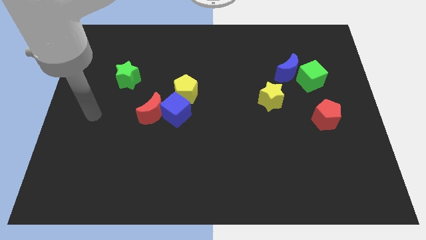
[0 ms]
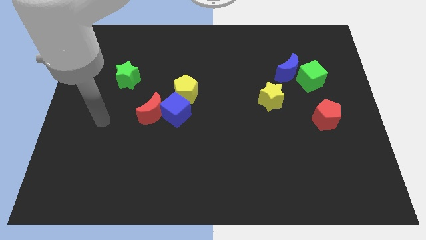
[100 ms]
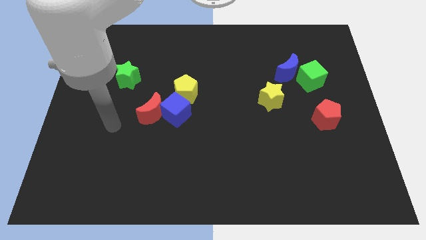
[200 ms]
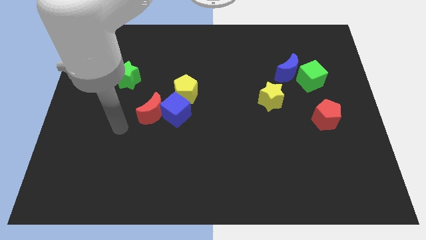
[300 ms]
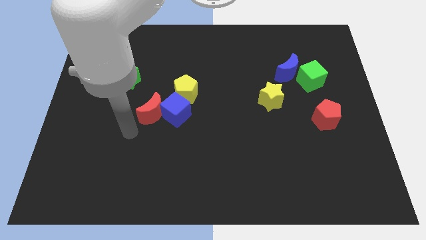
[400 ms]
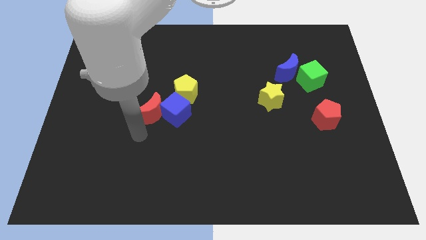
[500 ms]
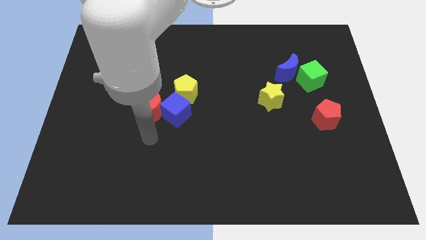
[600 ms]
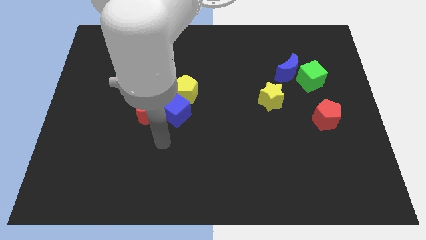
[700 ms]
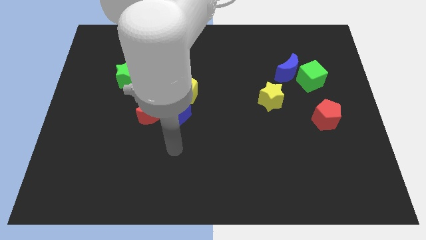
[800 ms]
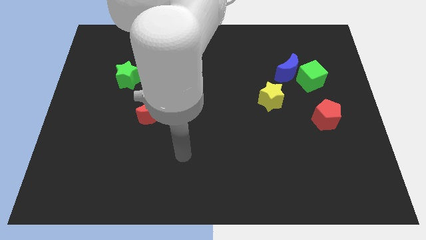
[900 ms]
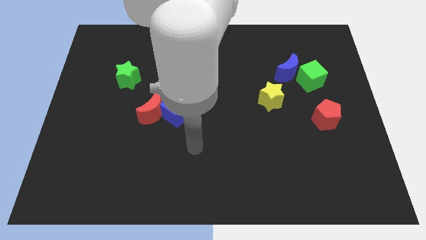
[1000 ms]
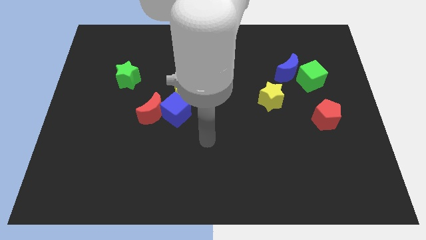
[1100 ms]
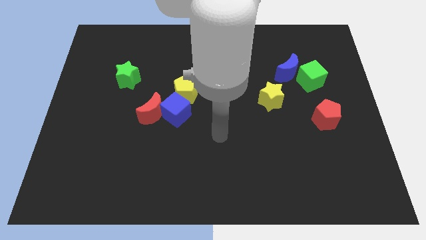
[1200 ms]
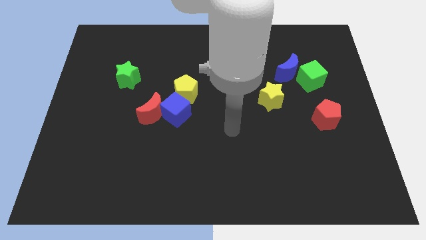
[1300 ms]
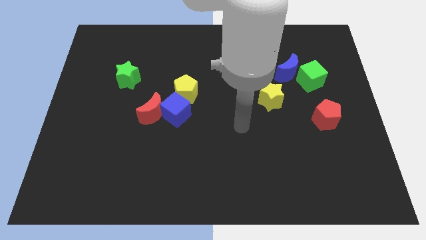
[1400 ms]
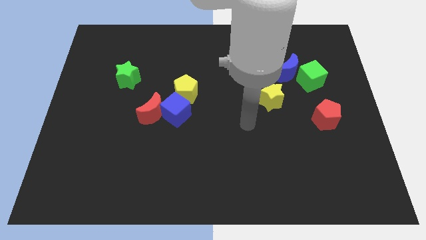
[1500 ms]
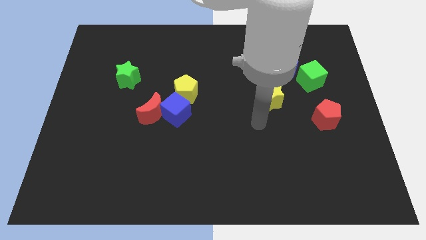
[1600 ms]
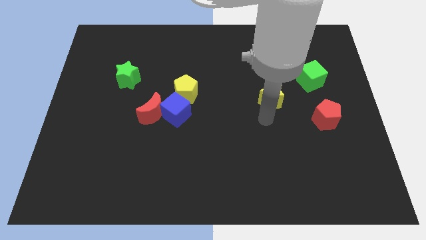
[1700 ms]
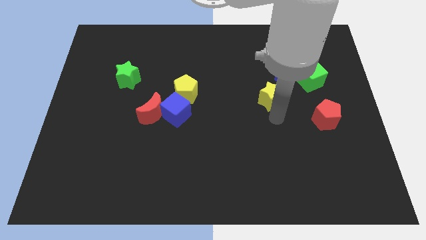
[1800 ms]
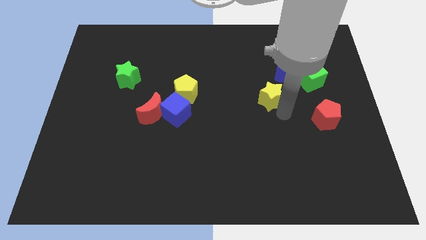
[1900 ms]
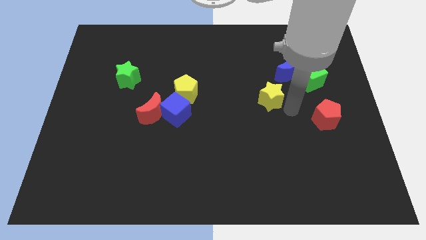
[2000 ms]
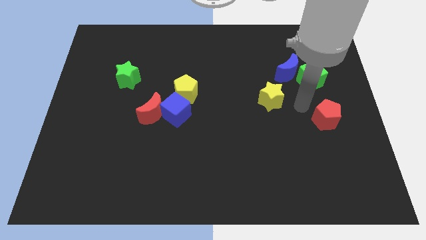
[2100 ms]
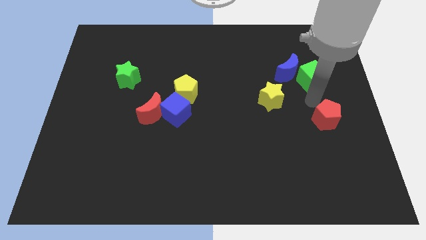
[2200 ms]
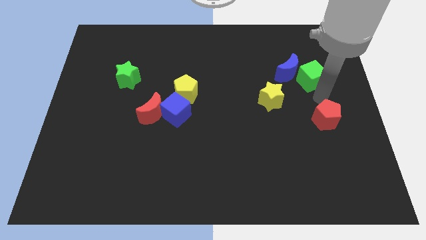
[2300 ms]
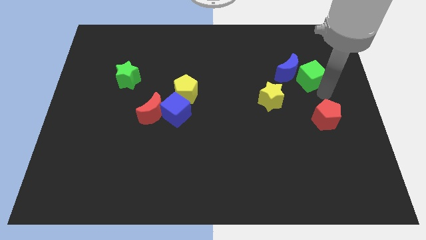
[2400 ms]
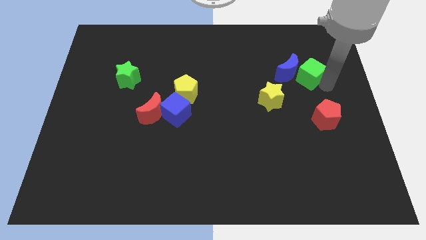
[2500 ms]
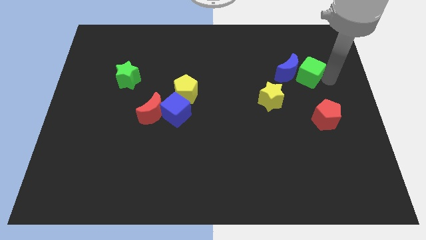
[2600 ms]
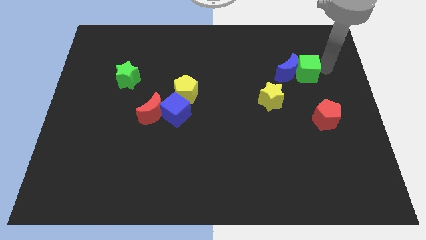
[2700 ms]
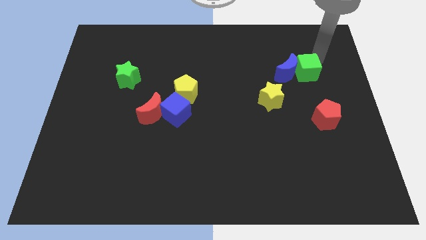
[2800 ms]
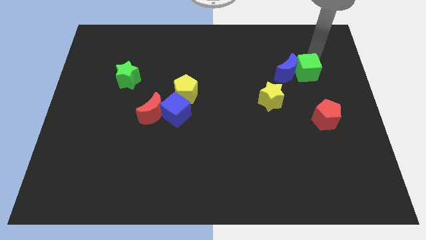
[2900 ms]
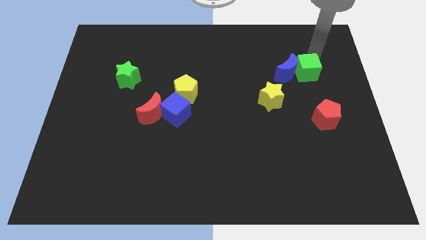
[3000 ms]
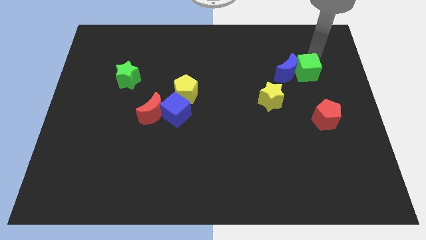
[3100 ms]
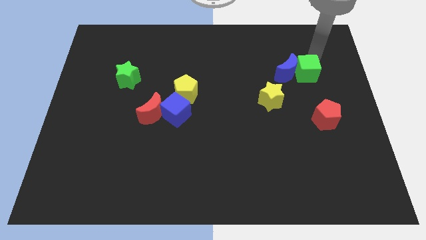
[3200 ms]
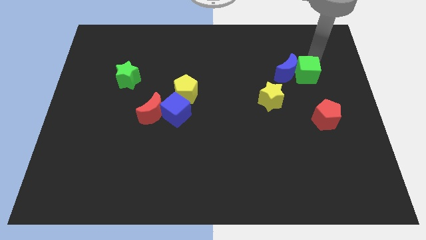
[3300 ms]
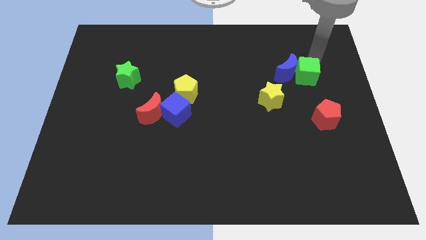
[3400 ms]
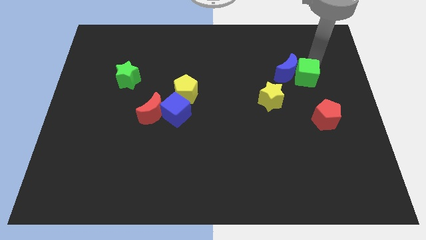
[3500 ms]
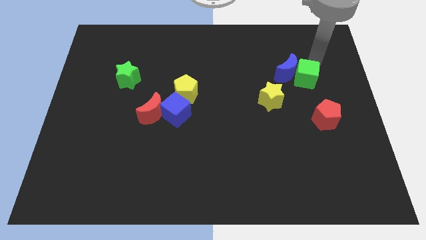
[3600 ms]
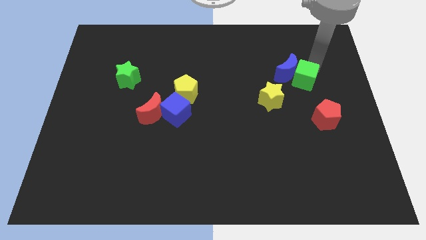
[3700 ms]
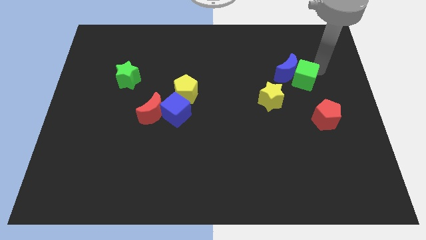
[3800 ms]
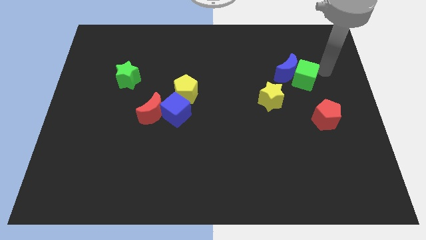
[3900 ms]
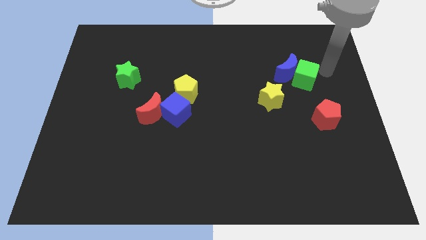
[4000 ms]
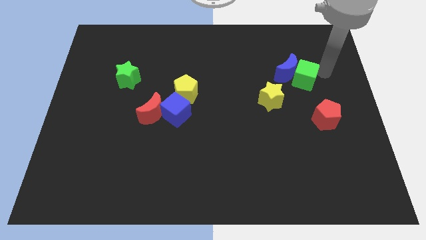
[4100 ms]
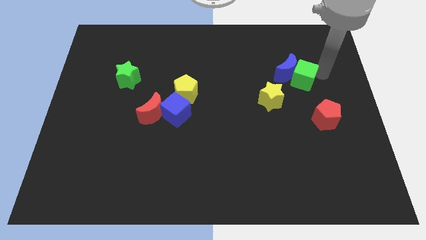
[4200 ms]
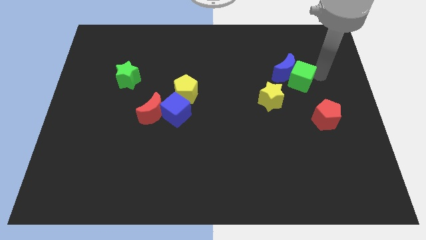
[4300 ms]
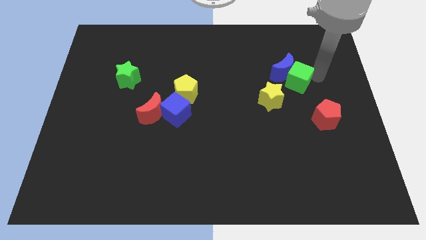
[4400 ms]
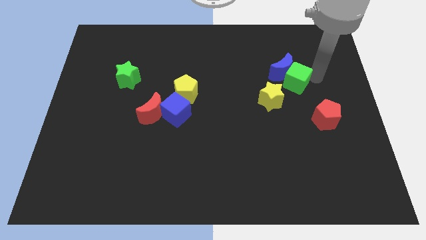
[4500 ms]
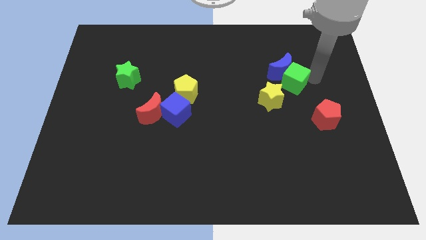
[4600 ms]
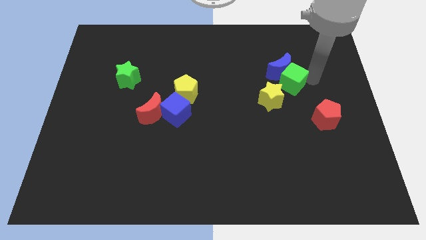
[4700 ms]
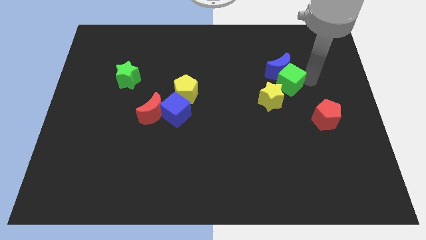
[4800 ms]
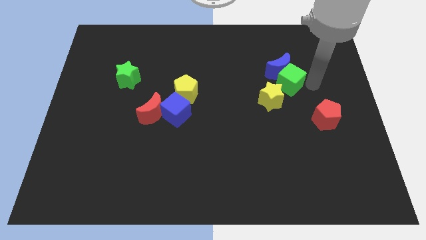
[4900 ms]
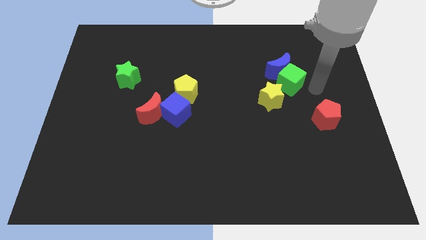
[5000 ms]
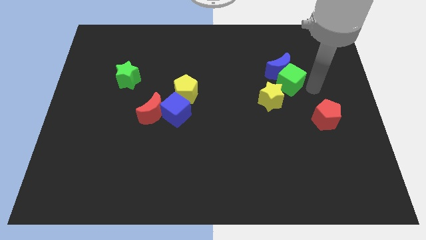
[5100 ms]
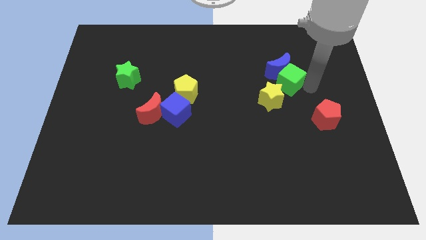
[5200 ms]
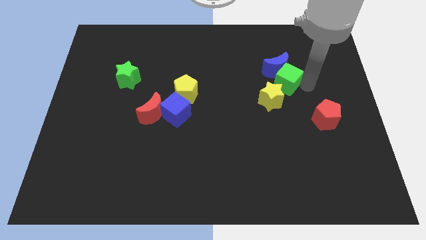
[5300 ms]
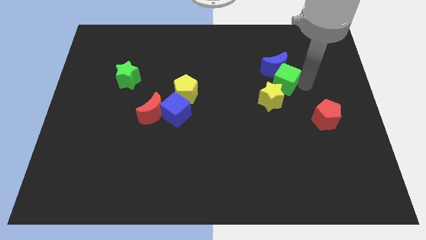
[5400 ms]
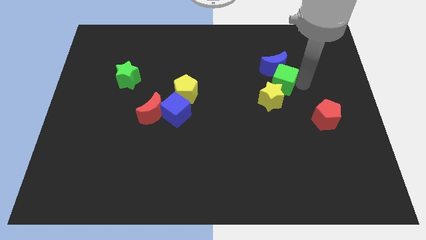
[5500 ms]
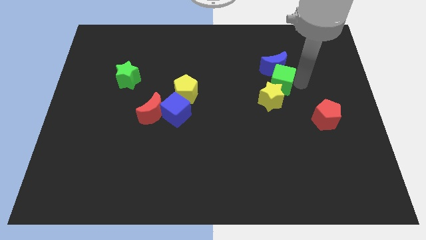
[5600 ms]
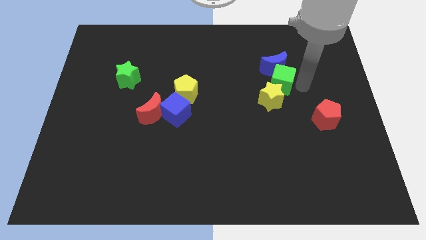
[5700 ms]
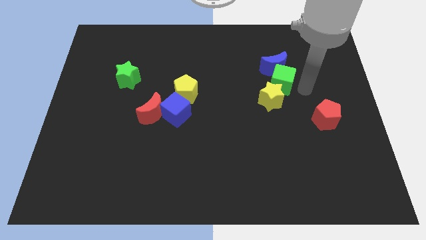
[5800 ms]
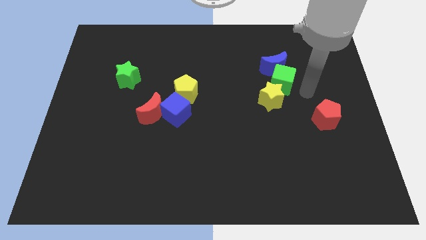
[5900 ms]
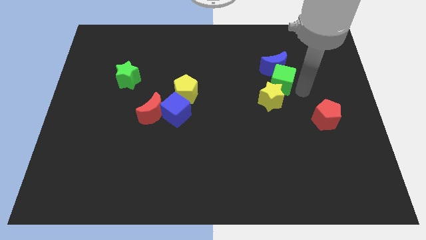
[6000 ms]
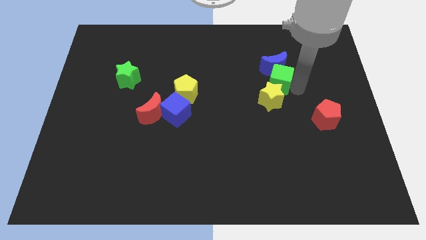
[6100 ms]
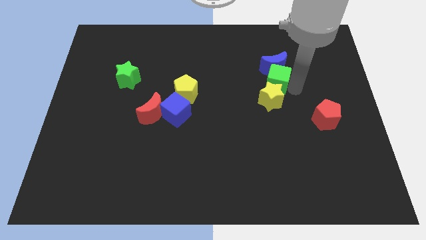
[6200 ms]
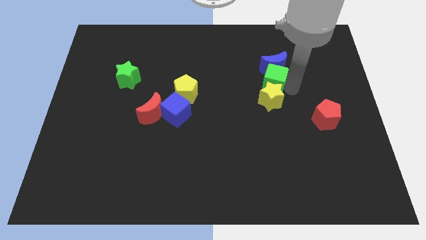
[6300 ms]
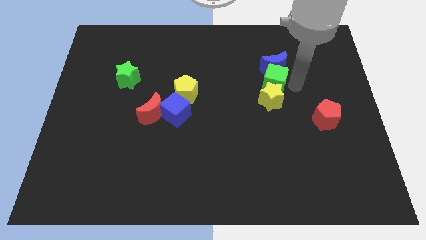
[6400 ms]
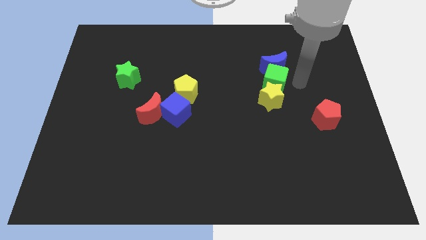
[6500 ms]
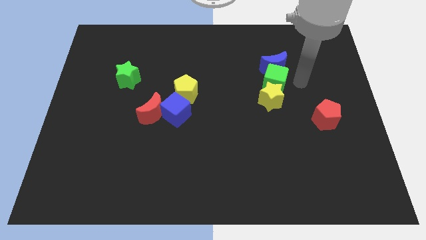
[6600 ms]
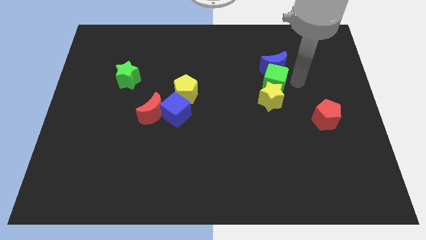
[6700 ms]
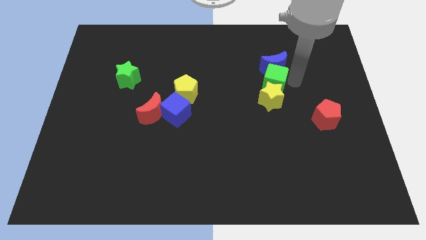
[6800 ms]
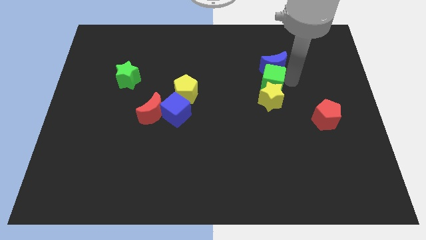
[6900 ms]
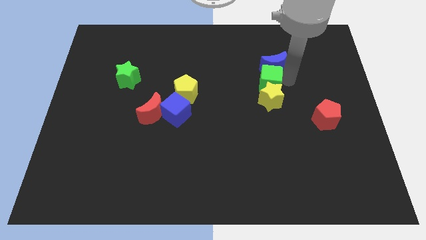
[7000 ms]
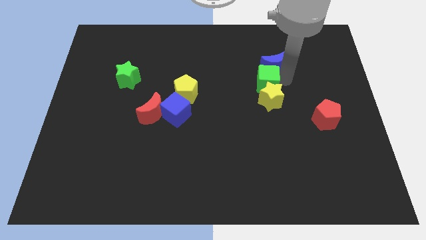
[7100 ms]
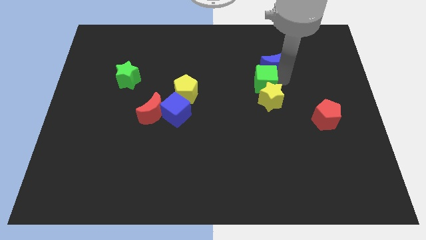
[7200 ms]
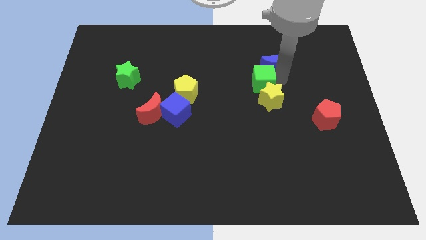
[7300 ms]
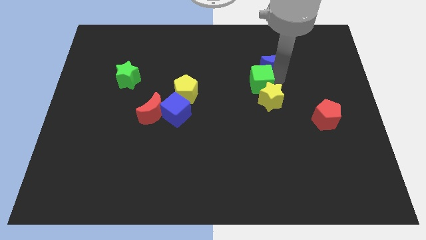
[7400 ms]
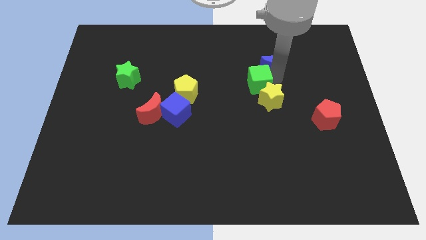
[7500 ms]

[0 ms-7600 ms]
push the green cube to the middle
